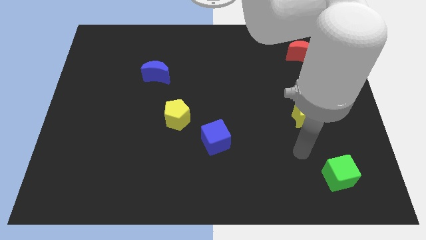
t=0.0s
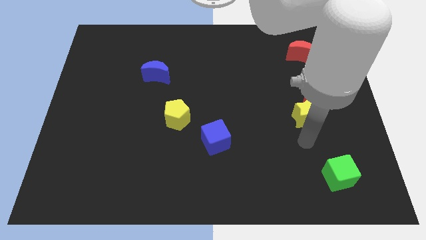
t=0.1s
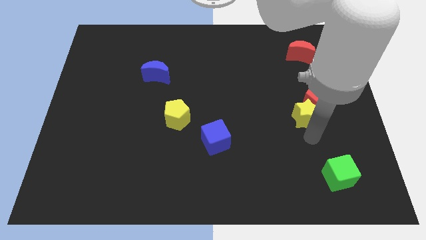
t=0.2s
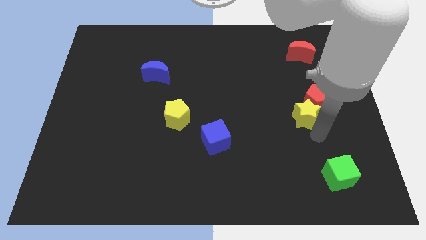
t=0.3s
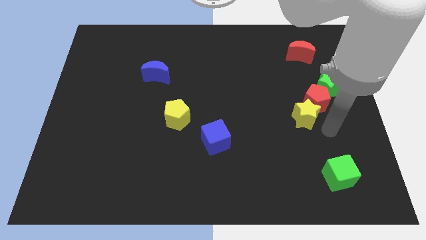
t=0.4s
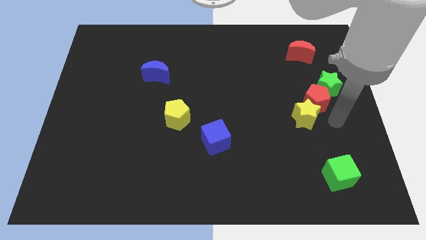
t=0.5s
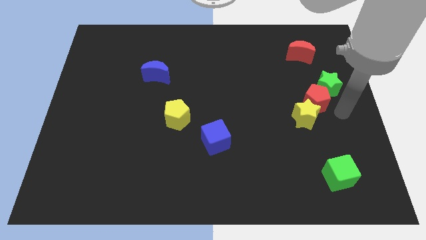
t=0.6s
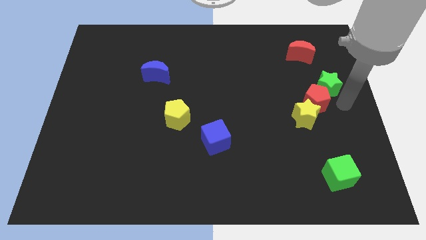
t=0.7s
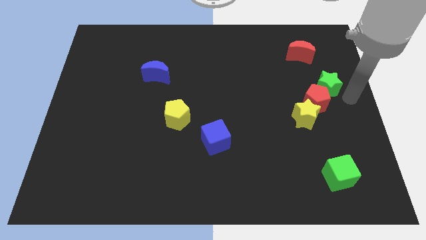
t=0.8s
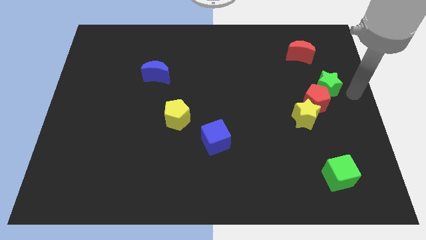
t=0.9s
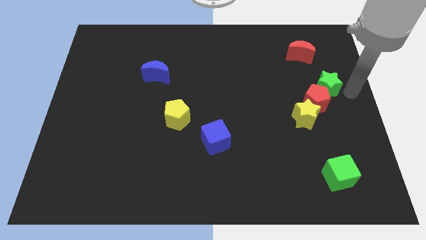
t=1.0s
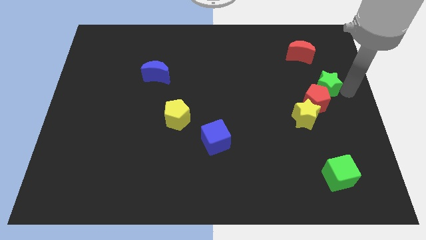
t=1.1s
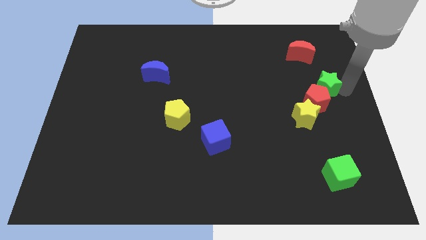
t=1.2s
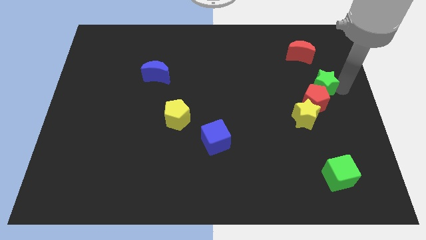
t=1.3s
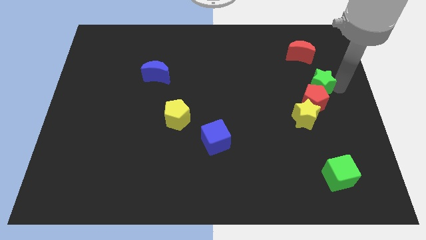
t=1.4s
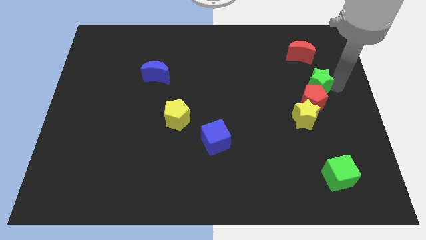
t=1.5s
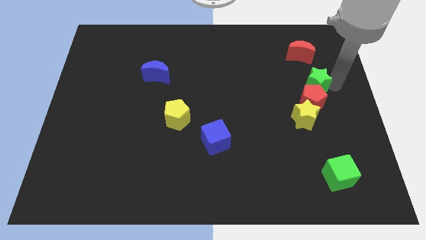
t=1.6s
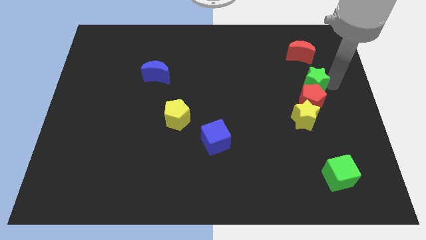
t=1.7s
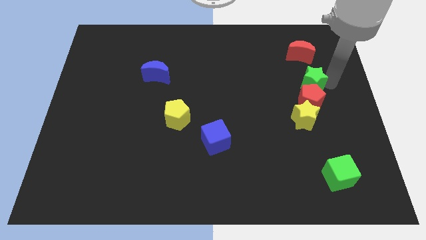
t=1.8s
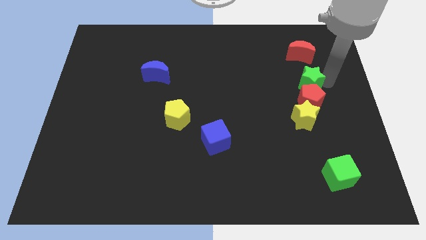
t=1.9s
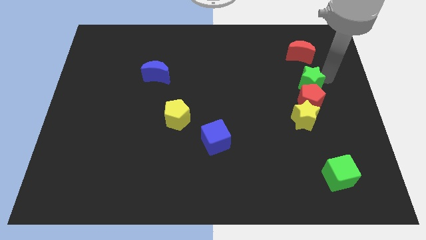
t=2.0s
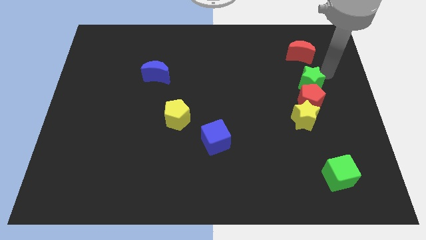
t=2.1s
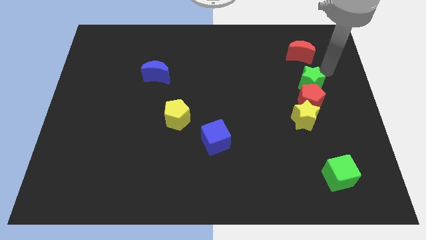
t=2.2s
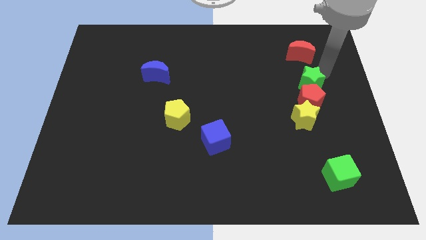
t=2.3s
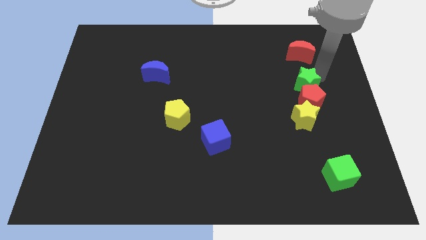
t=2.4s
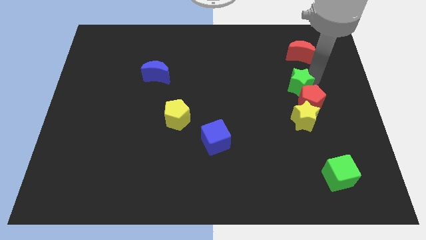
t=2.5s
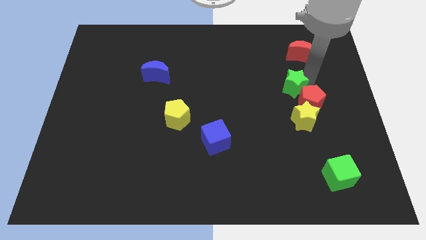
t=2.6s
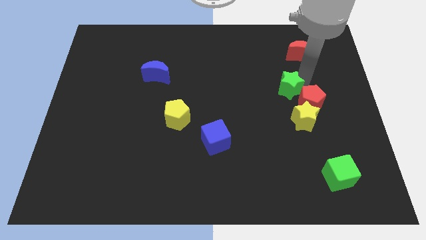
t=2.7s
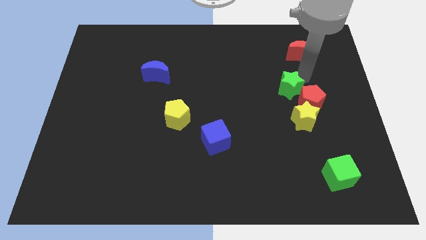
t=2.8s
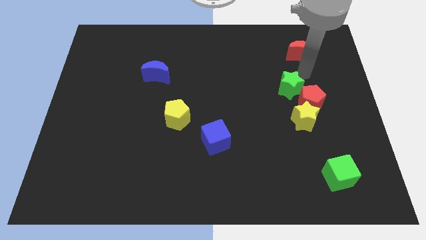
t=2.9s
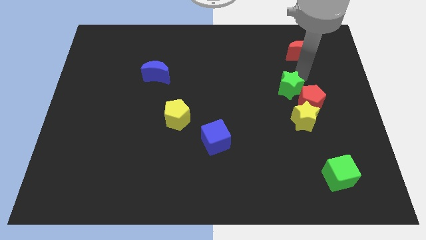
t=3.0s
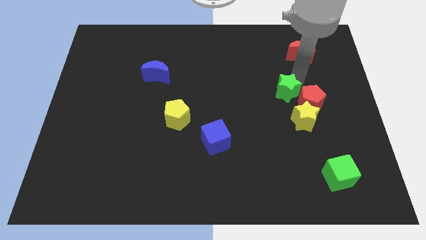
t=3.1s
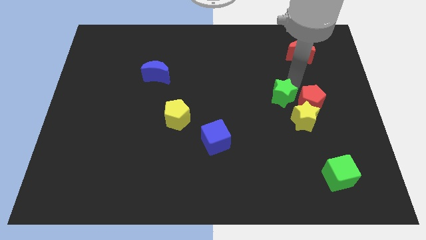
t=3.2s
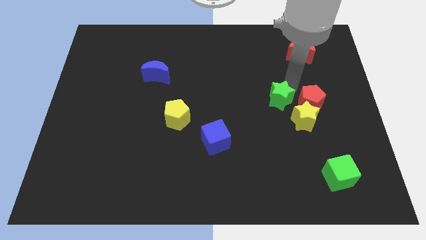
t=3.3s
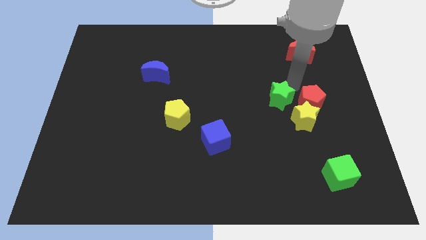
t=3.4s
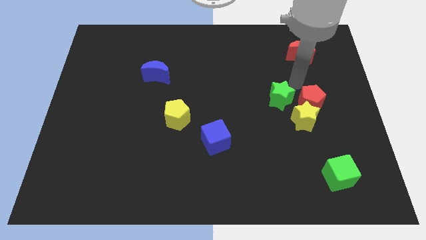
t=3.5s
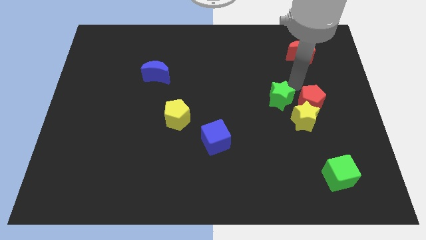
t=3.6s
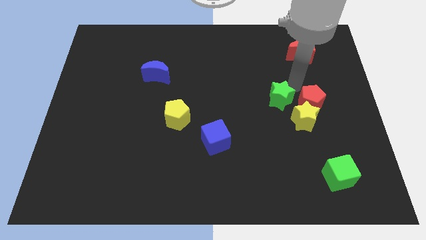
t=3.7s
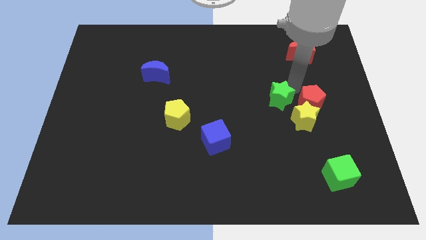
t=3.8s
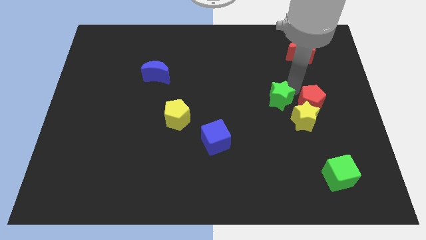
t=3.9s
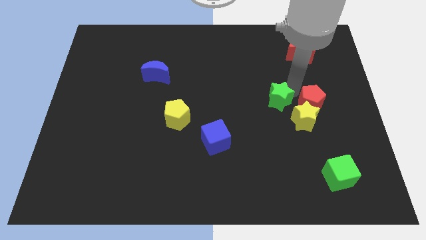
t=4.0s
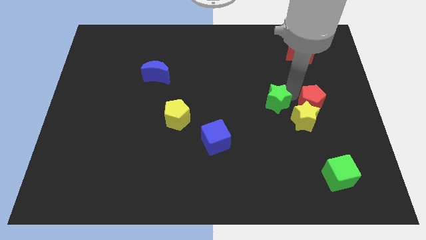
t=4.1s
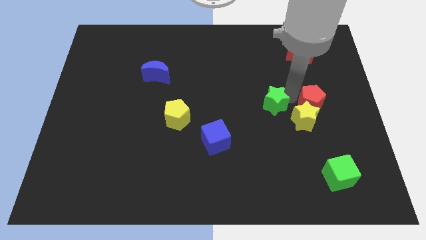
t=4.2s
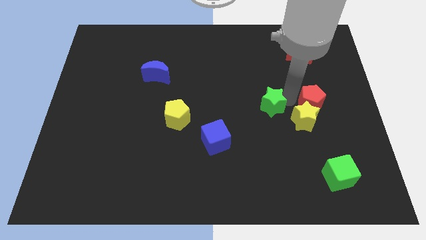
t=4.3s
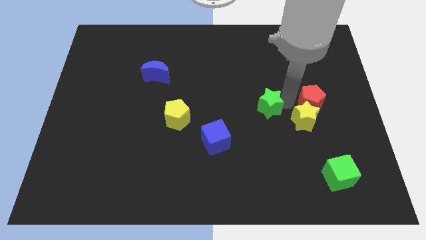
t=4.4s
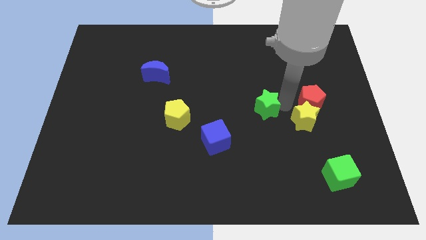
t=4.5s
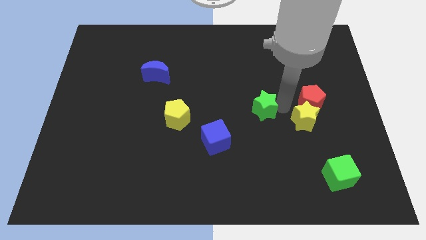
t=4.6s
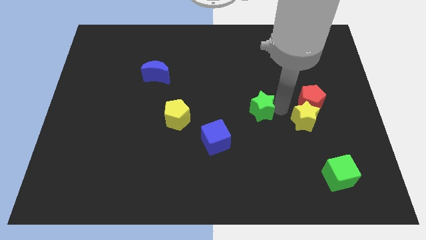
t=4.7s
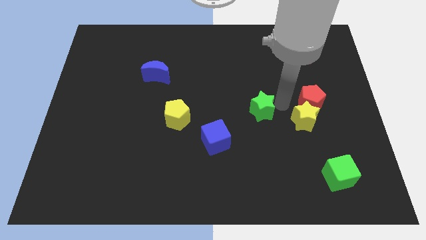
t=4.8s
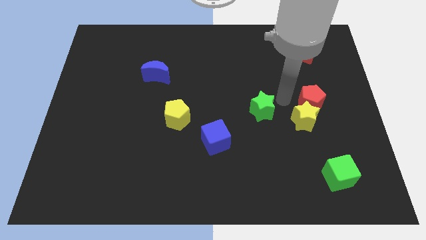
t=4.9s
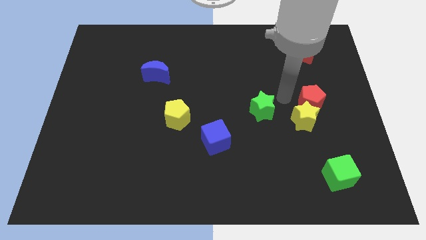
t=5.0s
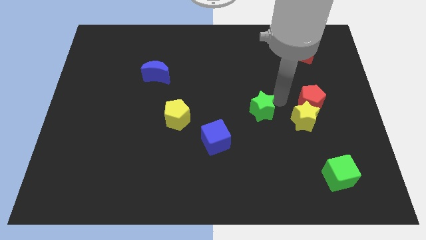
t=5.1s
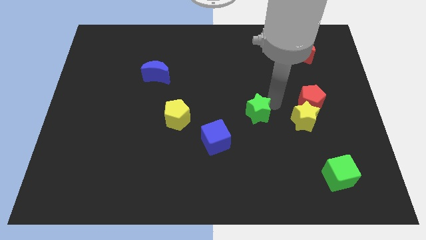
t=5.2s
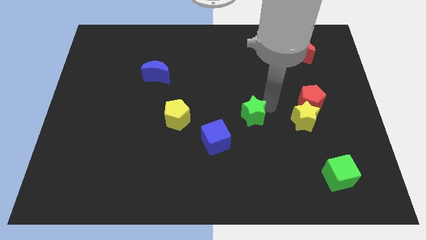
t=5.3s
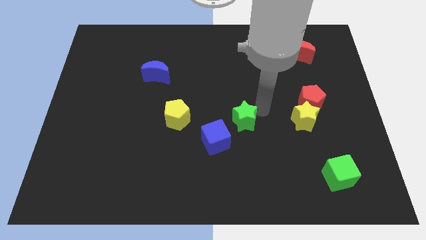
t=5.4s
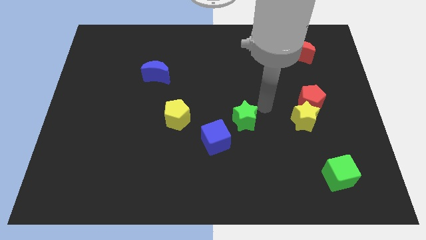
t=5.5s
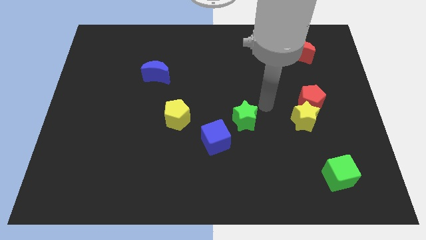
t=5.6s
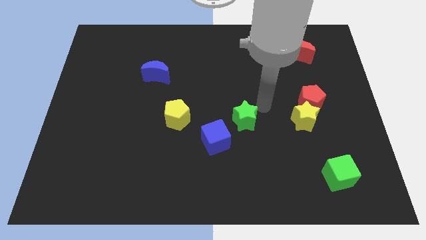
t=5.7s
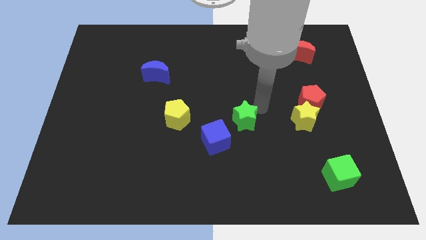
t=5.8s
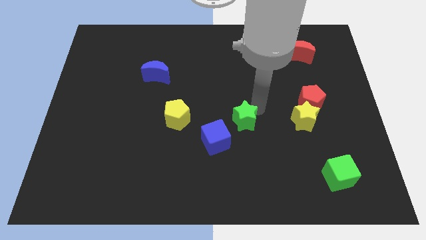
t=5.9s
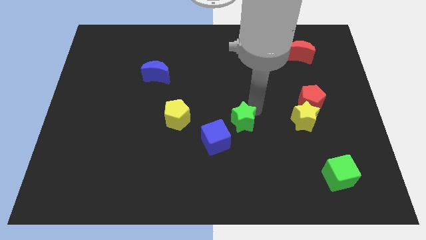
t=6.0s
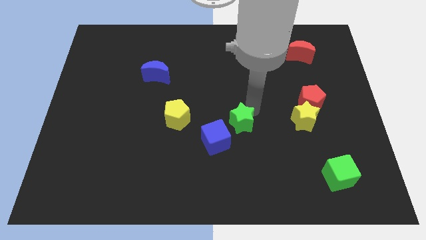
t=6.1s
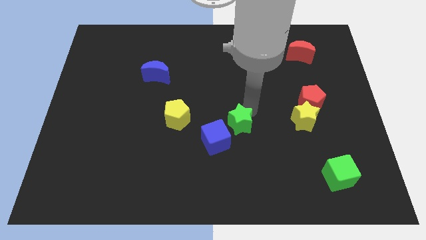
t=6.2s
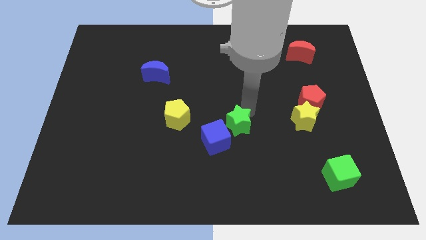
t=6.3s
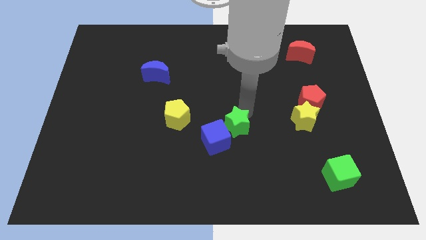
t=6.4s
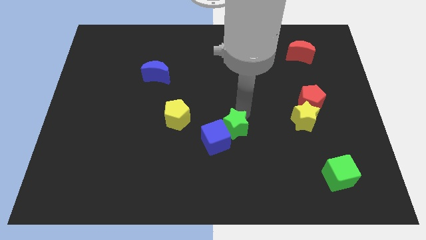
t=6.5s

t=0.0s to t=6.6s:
put the green star towards the blue cube

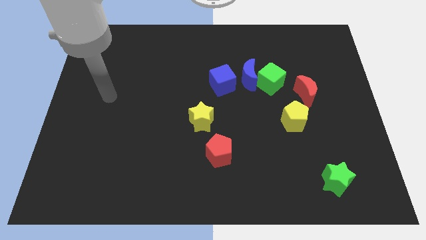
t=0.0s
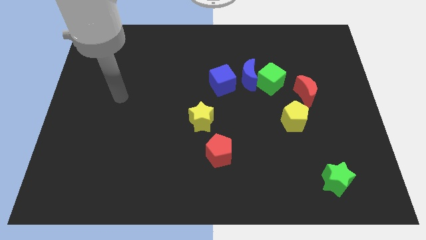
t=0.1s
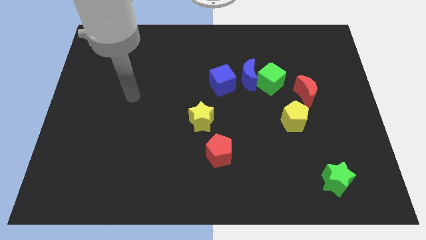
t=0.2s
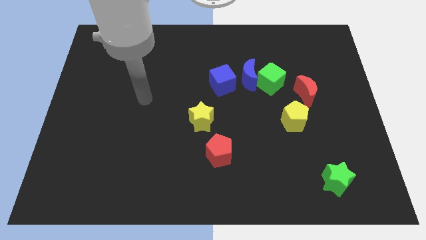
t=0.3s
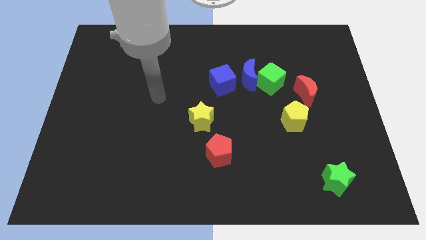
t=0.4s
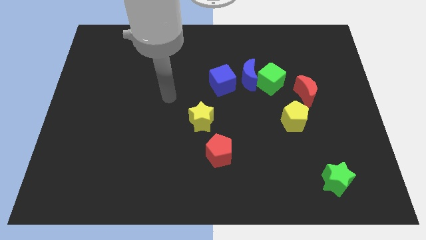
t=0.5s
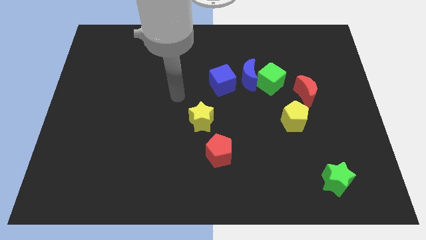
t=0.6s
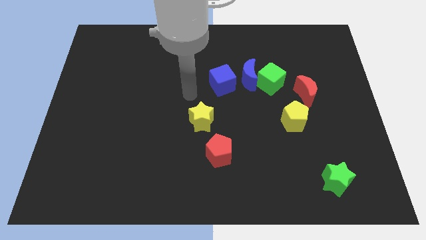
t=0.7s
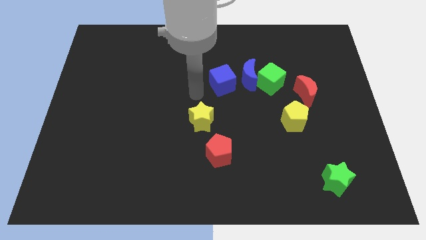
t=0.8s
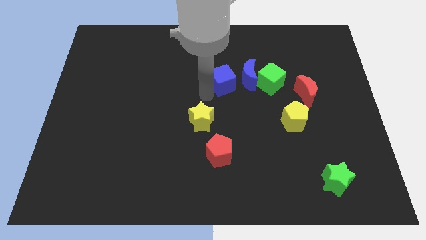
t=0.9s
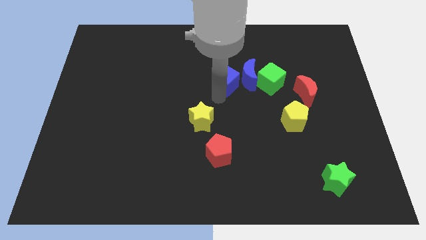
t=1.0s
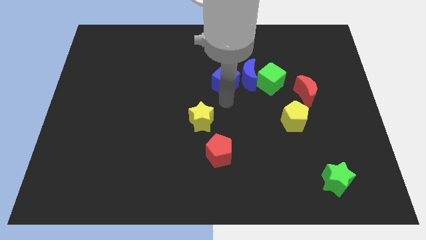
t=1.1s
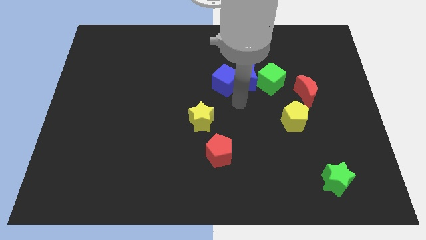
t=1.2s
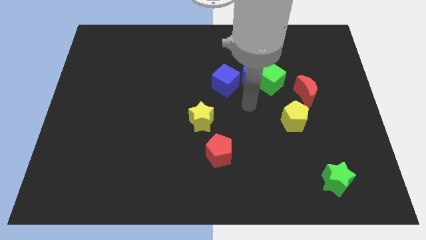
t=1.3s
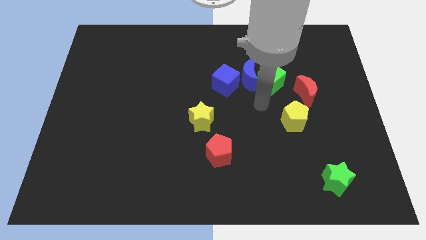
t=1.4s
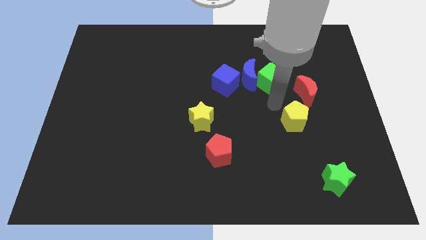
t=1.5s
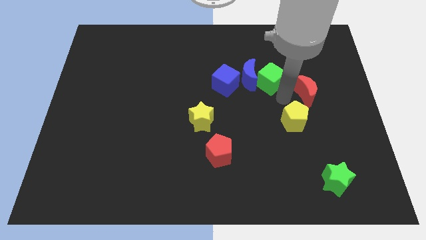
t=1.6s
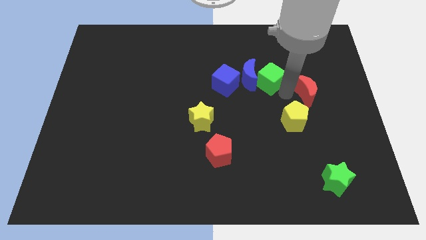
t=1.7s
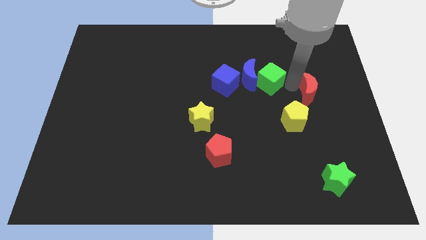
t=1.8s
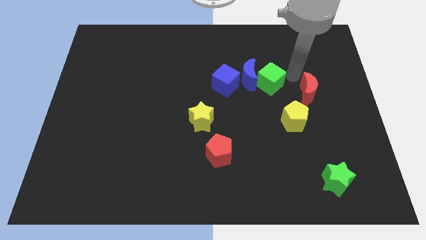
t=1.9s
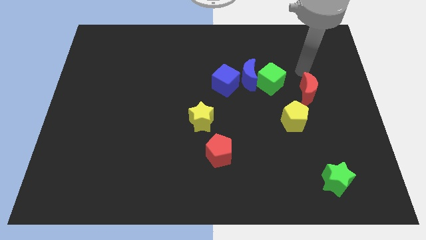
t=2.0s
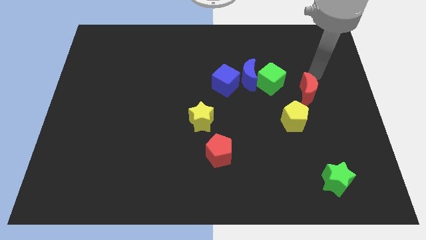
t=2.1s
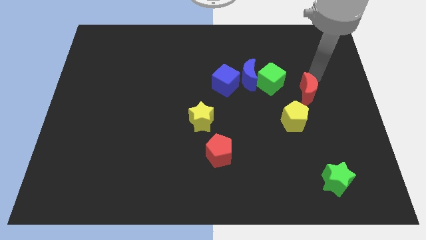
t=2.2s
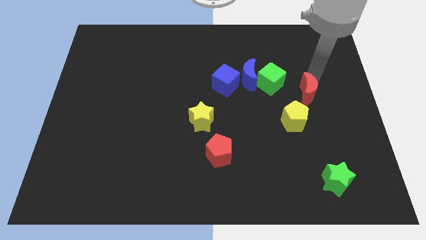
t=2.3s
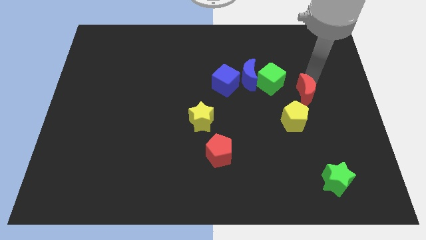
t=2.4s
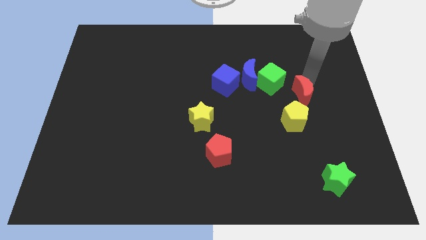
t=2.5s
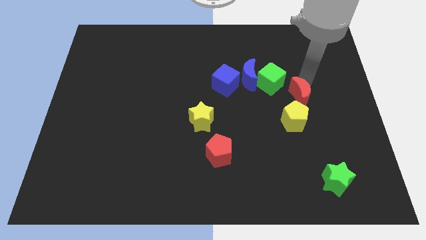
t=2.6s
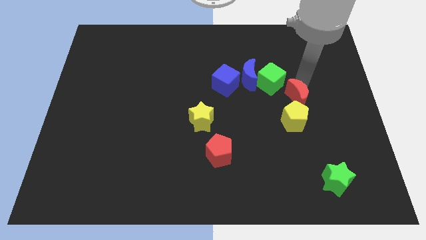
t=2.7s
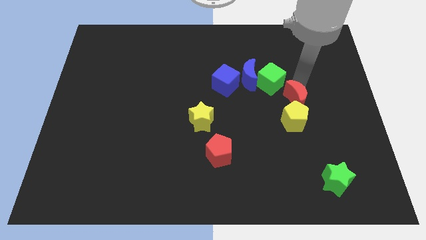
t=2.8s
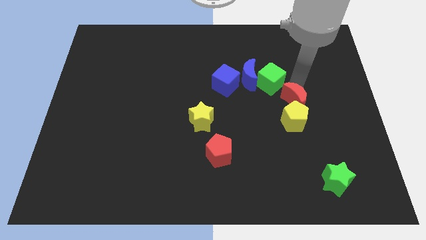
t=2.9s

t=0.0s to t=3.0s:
move the red moon towards the yellow pentagon
